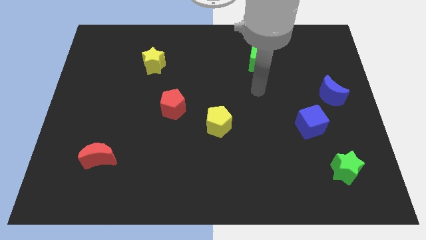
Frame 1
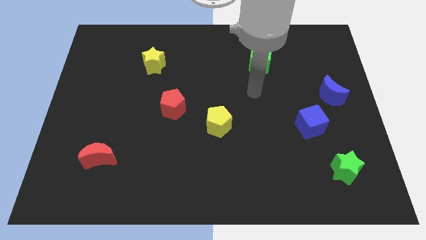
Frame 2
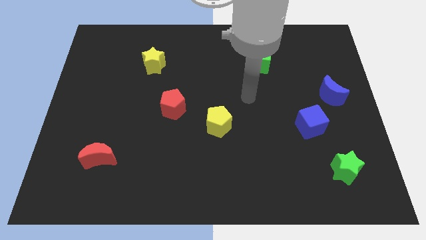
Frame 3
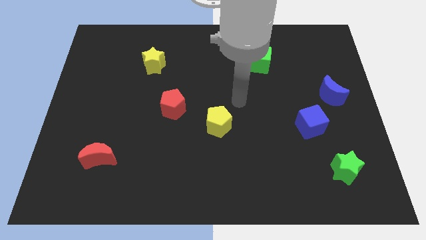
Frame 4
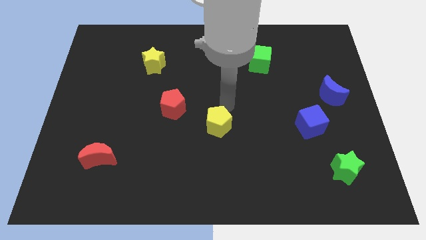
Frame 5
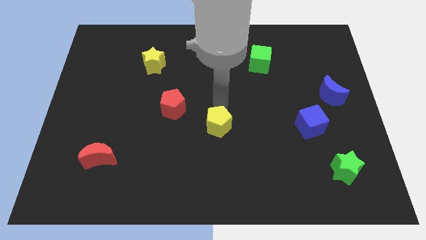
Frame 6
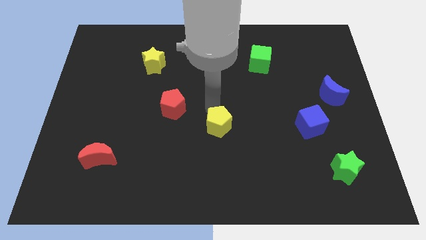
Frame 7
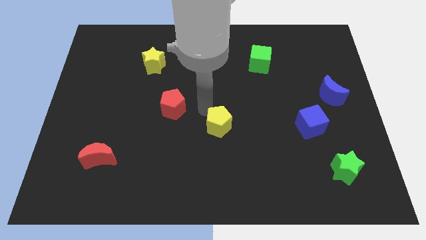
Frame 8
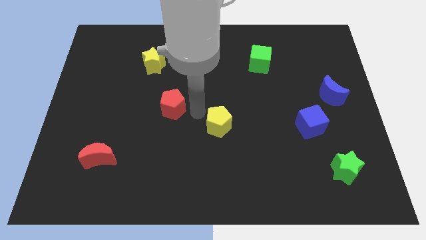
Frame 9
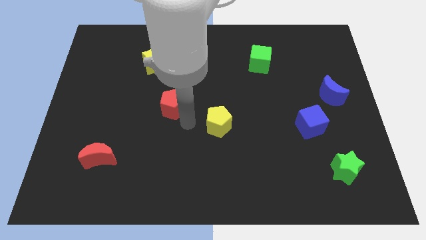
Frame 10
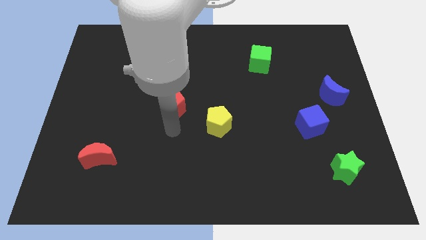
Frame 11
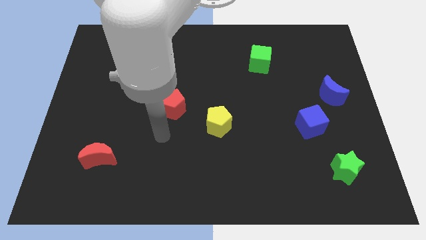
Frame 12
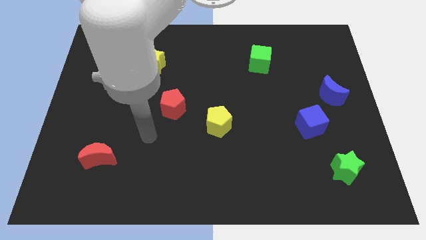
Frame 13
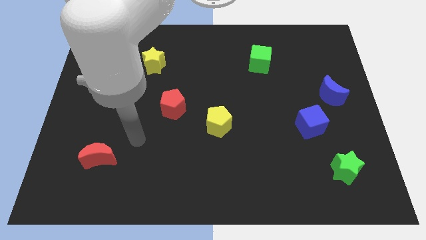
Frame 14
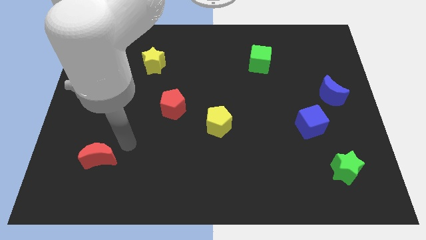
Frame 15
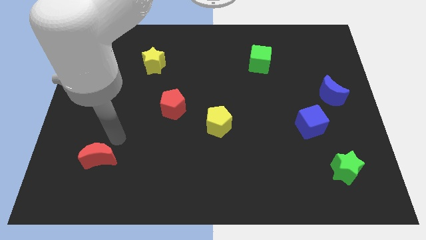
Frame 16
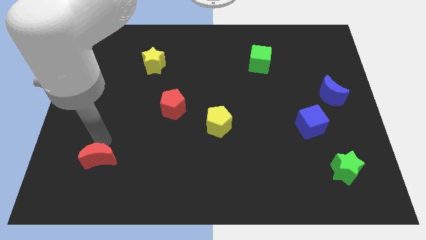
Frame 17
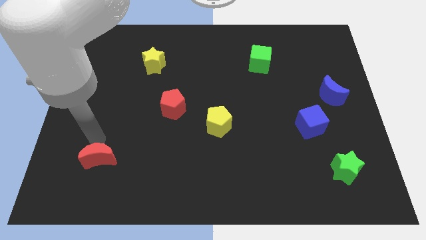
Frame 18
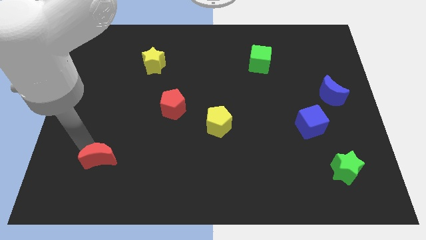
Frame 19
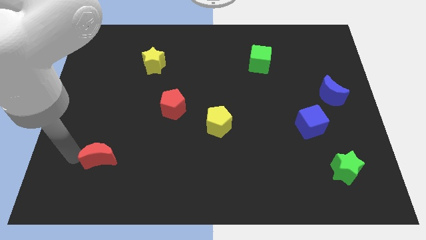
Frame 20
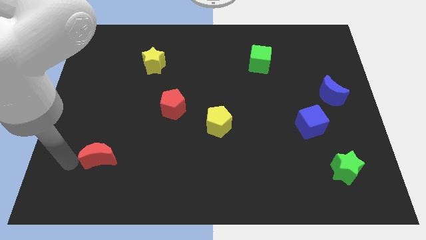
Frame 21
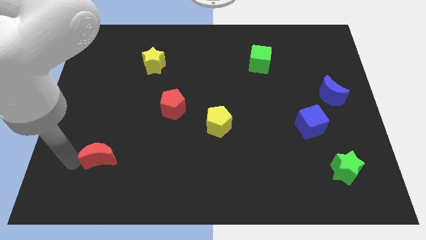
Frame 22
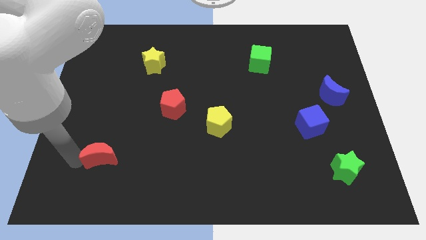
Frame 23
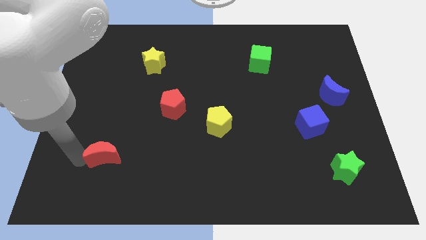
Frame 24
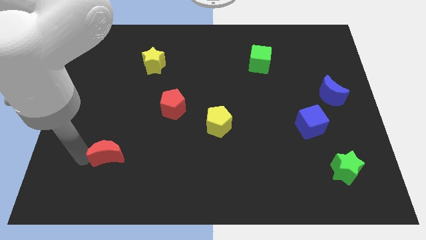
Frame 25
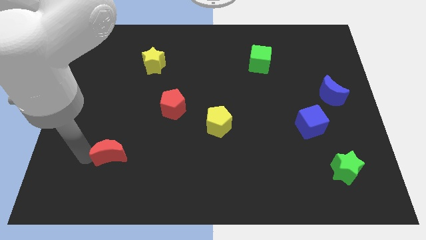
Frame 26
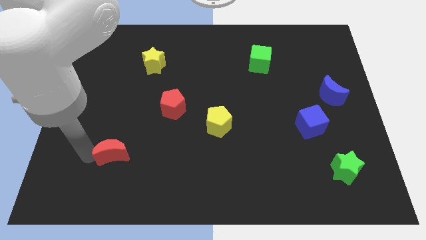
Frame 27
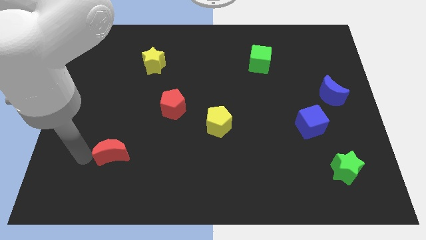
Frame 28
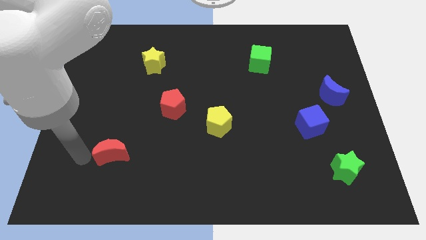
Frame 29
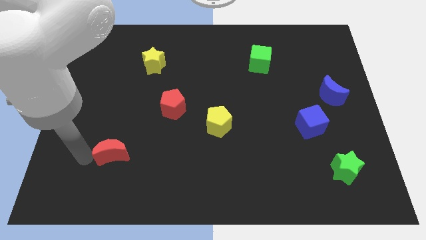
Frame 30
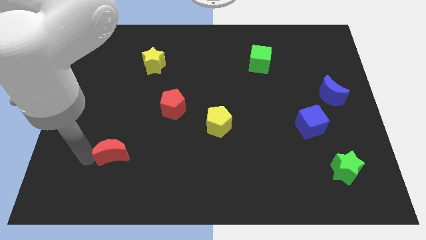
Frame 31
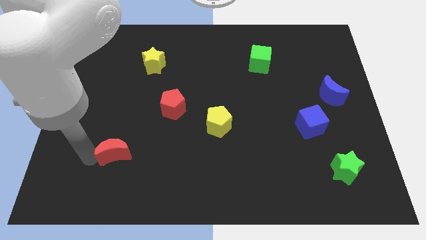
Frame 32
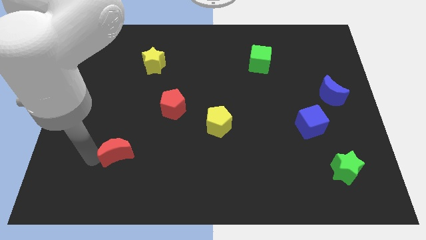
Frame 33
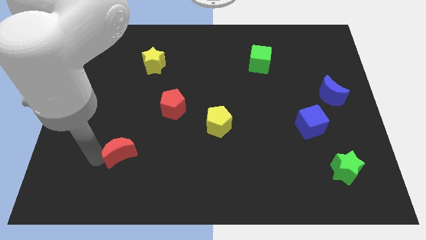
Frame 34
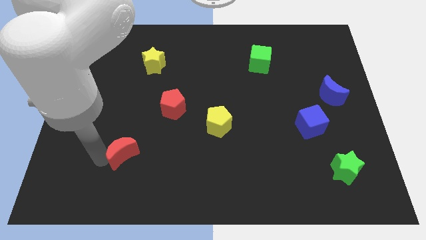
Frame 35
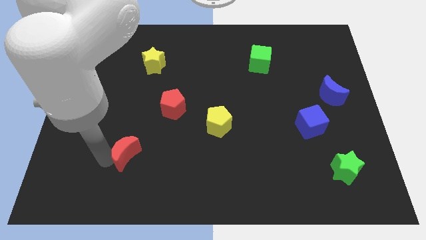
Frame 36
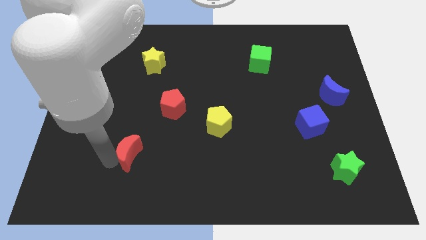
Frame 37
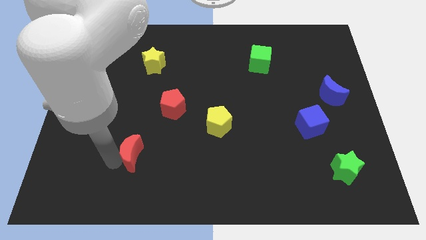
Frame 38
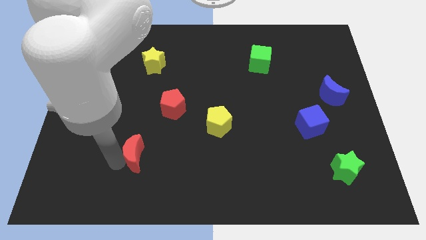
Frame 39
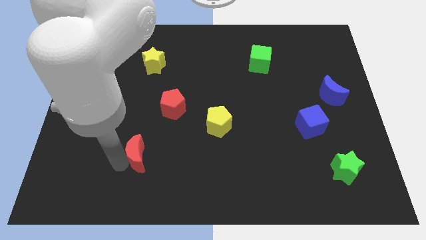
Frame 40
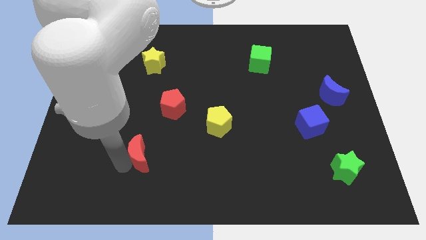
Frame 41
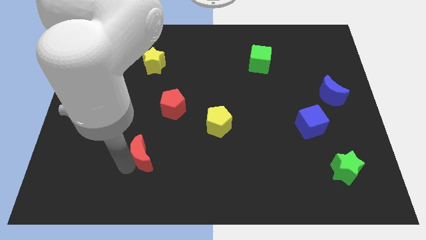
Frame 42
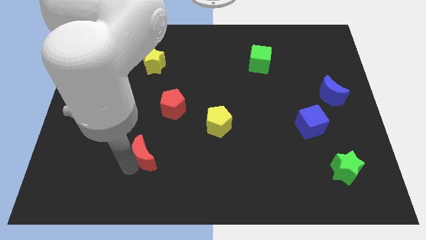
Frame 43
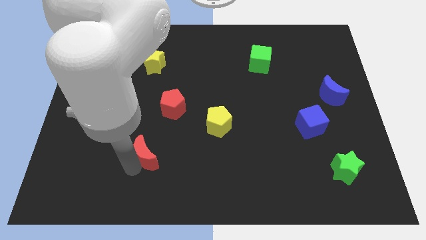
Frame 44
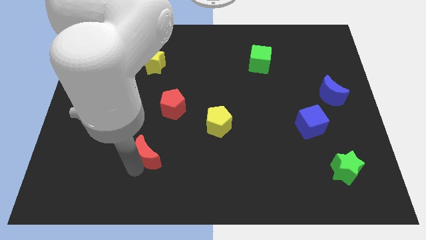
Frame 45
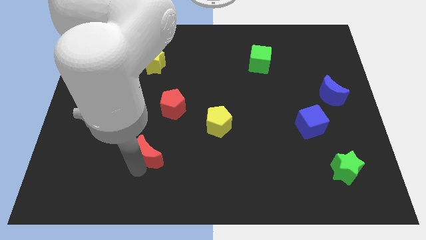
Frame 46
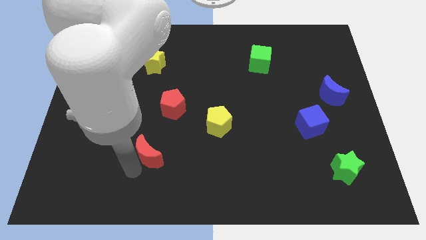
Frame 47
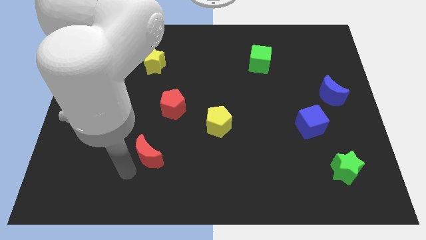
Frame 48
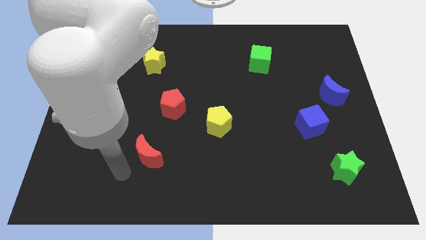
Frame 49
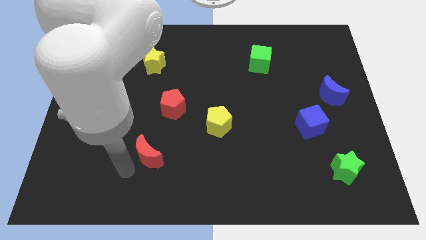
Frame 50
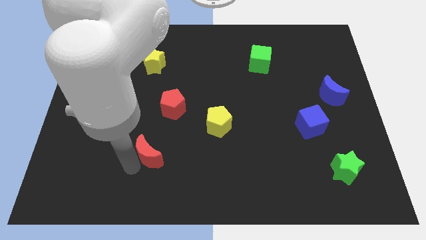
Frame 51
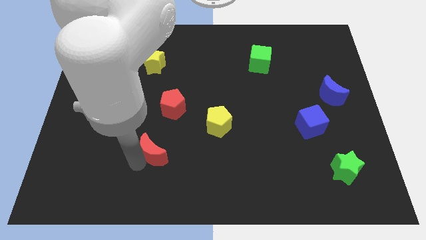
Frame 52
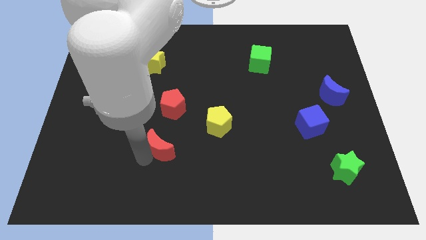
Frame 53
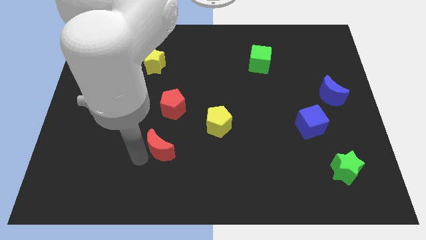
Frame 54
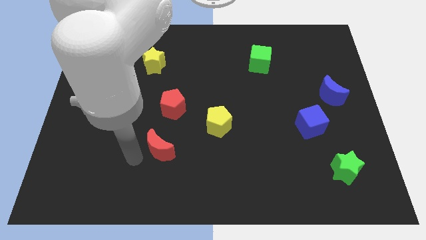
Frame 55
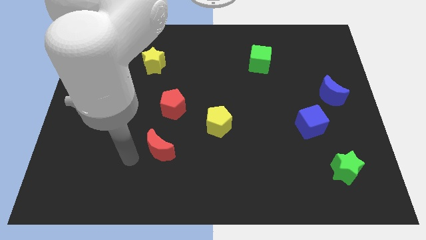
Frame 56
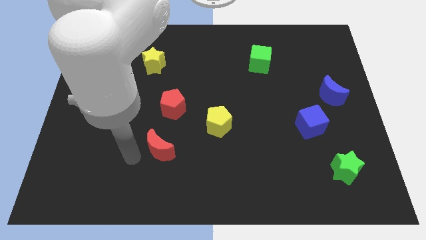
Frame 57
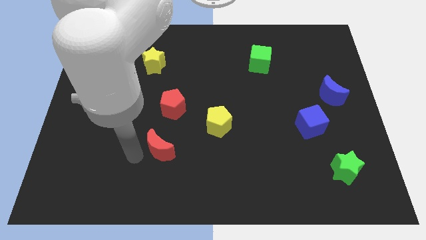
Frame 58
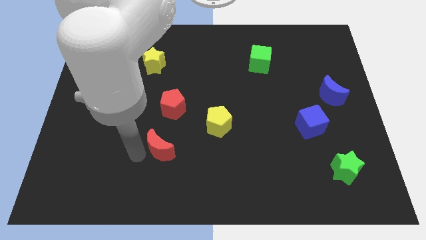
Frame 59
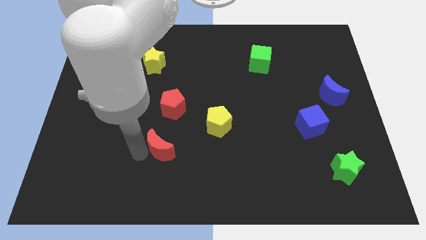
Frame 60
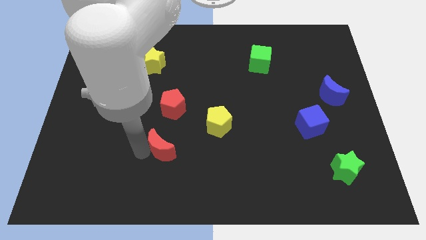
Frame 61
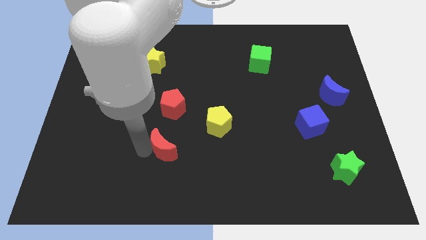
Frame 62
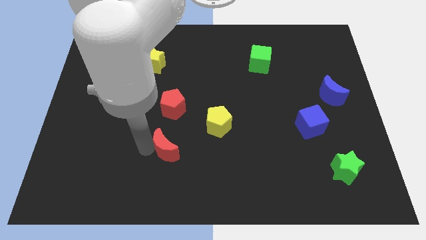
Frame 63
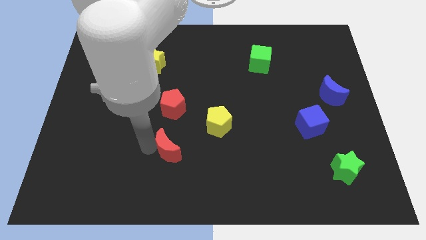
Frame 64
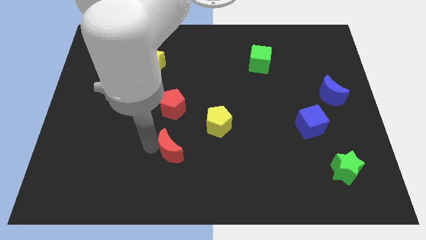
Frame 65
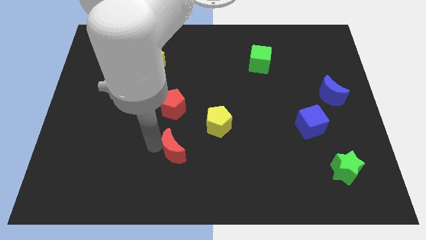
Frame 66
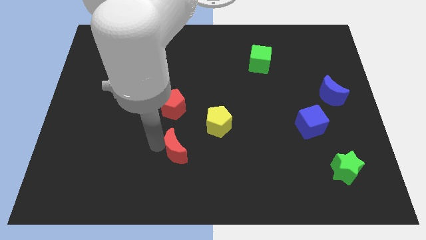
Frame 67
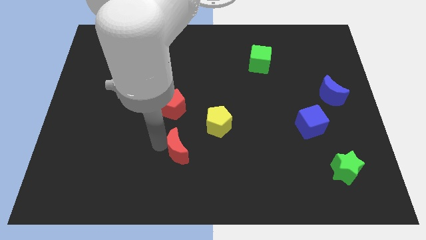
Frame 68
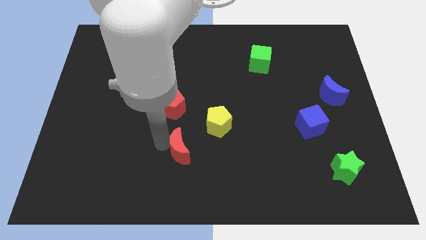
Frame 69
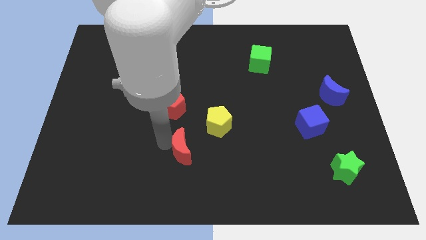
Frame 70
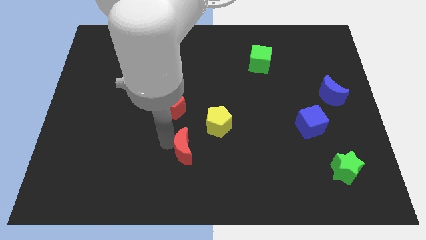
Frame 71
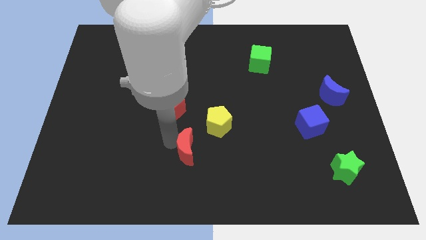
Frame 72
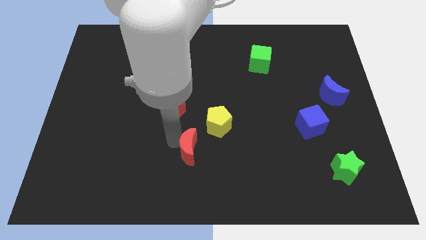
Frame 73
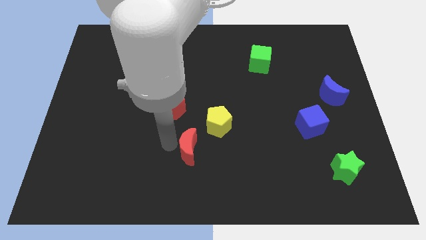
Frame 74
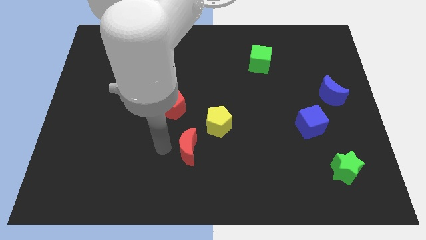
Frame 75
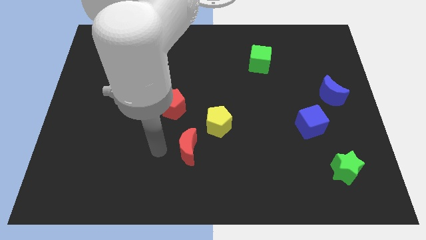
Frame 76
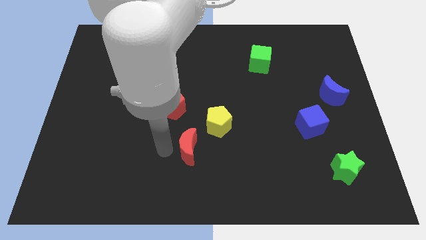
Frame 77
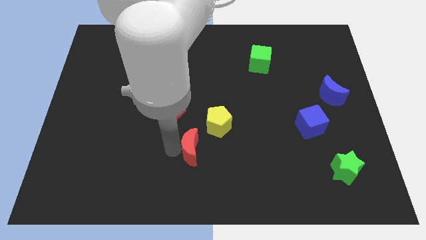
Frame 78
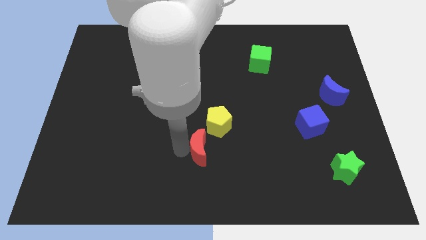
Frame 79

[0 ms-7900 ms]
move the red moon to the right

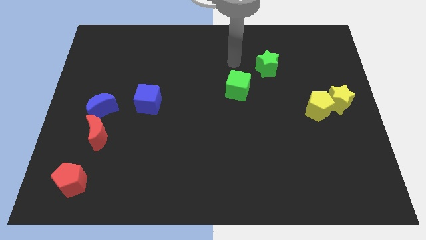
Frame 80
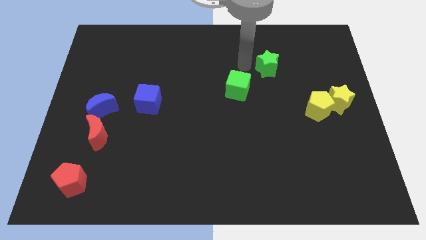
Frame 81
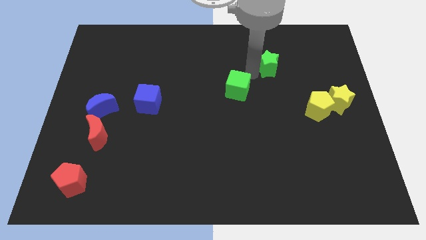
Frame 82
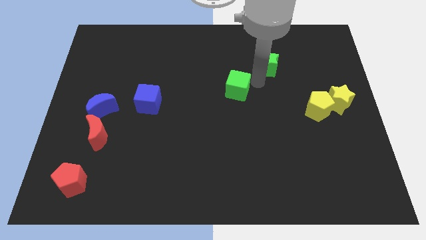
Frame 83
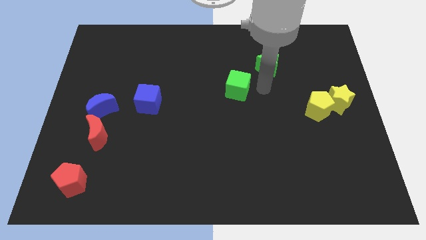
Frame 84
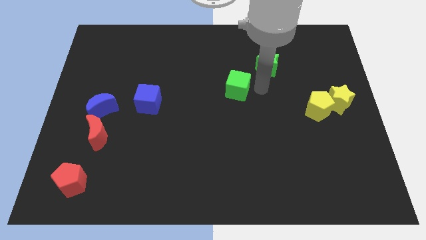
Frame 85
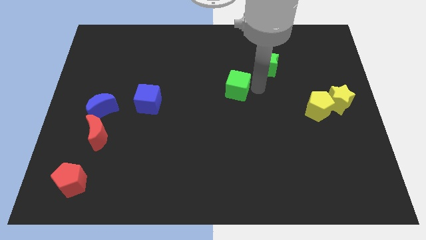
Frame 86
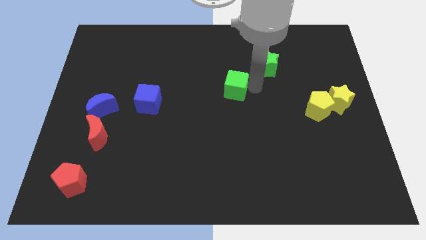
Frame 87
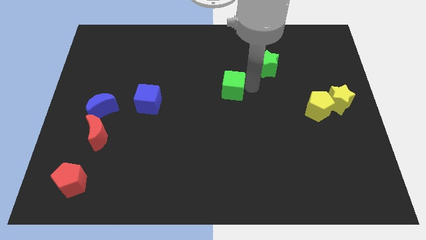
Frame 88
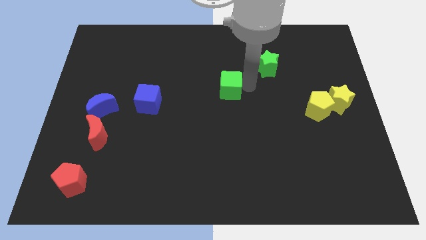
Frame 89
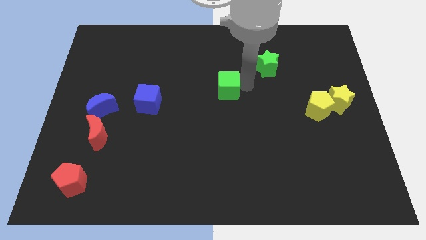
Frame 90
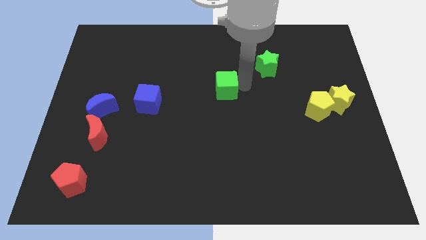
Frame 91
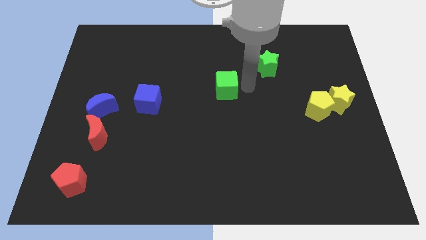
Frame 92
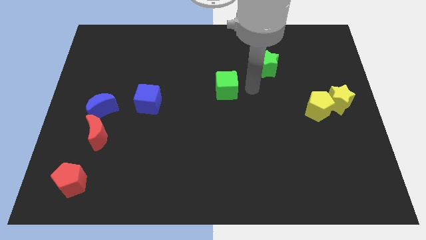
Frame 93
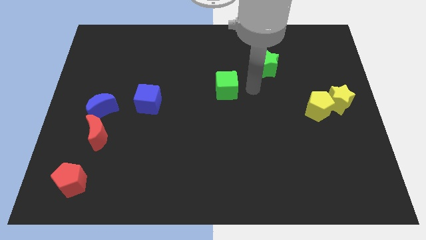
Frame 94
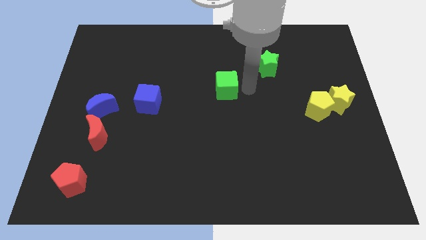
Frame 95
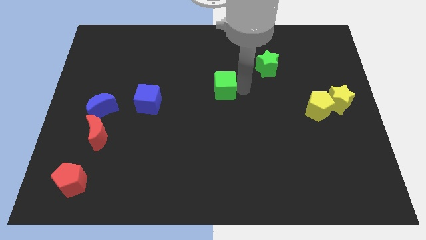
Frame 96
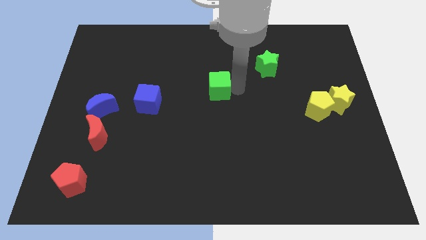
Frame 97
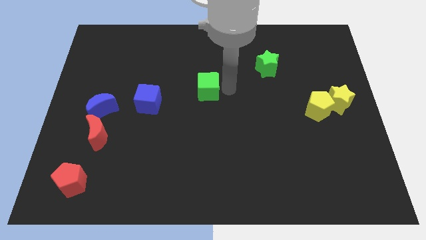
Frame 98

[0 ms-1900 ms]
slightly move the green cube left
